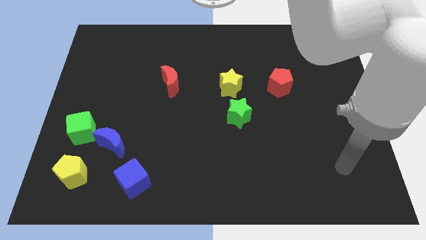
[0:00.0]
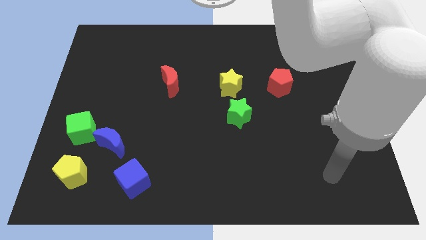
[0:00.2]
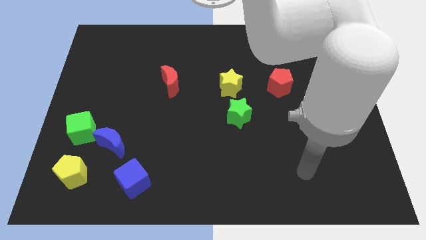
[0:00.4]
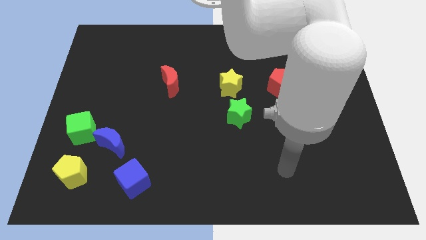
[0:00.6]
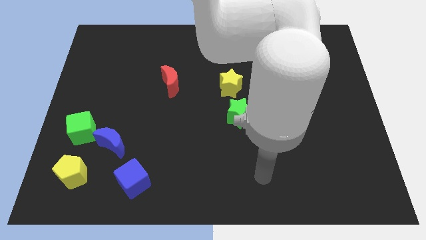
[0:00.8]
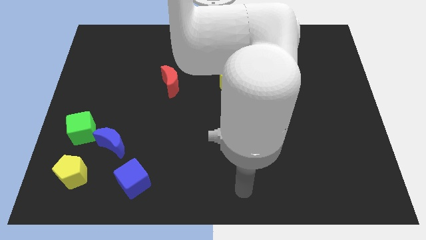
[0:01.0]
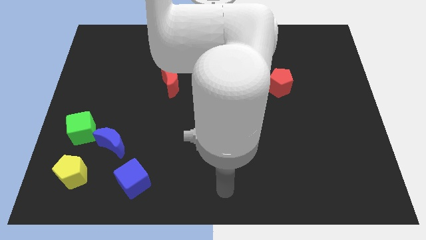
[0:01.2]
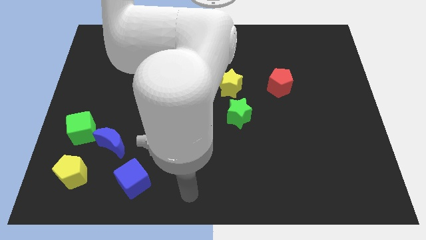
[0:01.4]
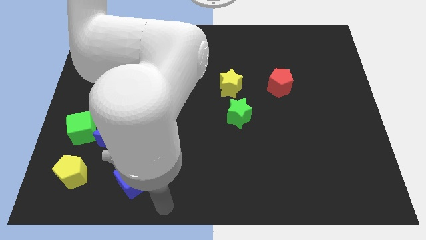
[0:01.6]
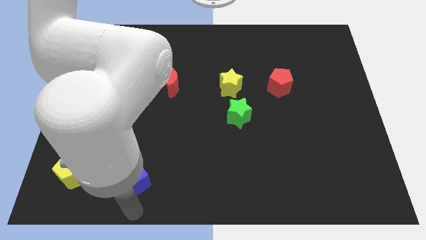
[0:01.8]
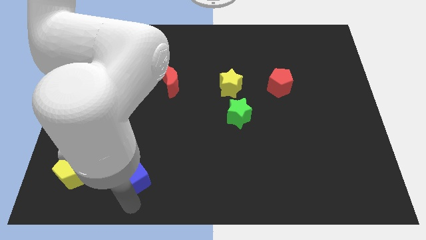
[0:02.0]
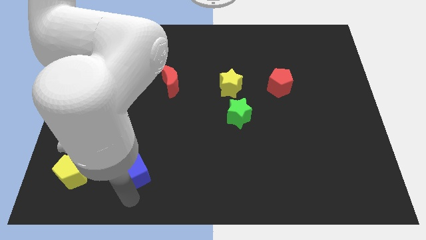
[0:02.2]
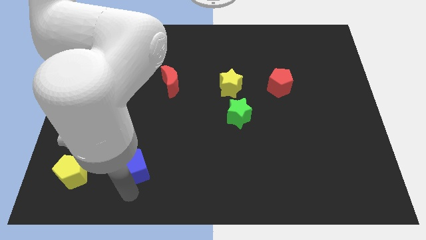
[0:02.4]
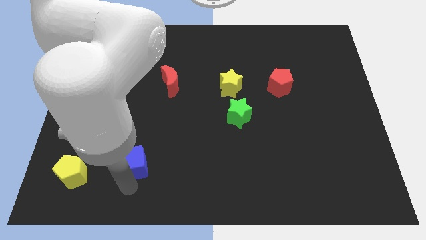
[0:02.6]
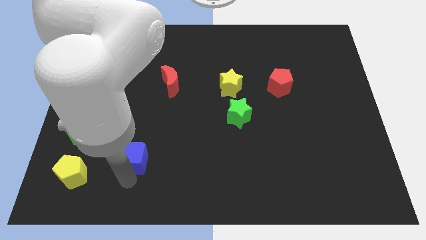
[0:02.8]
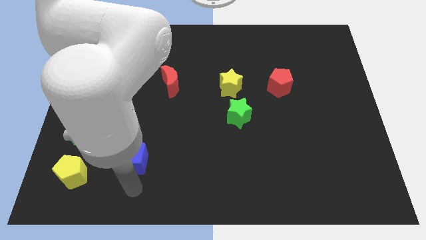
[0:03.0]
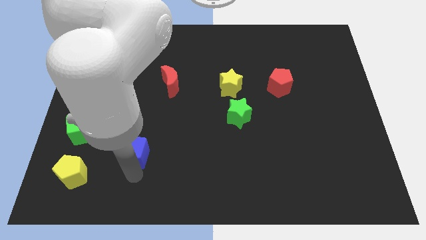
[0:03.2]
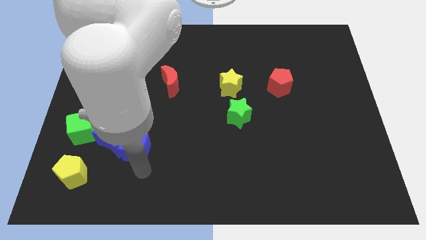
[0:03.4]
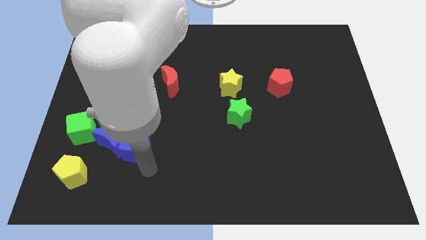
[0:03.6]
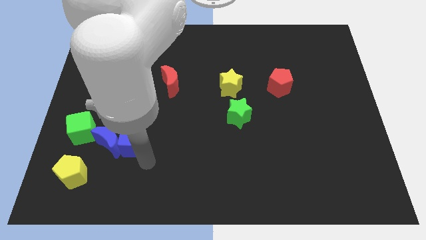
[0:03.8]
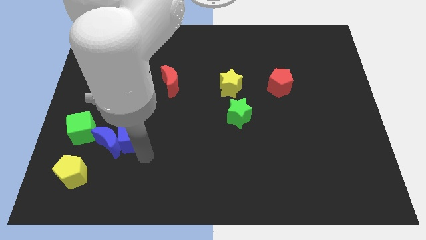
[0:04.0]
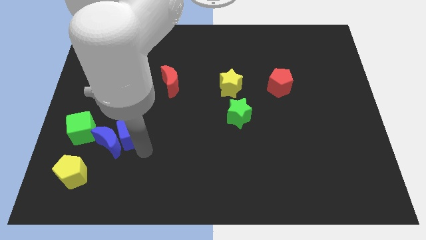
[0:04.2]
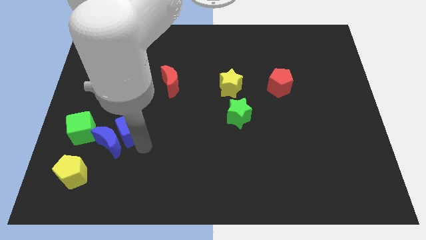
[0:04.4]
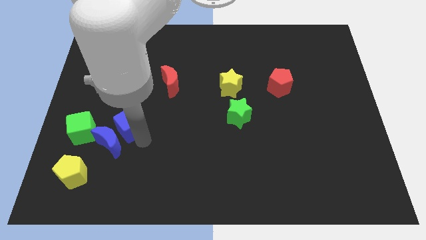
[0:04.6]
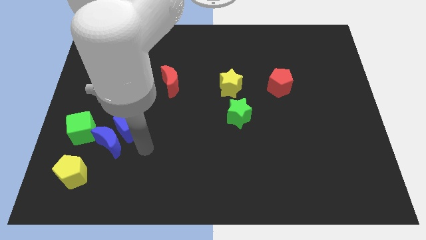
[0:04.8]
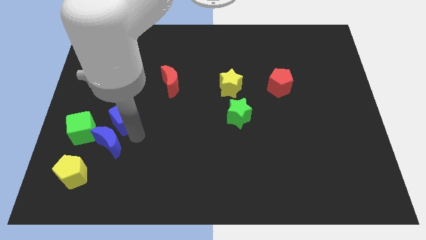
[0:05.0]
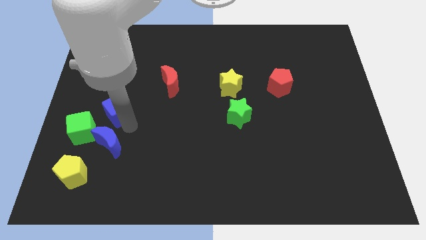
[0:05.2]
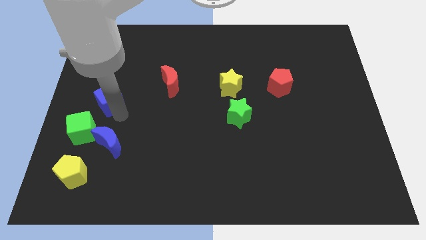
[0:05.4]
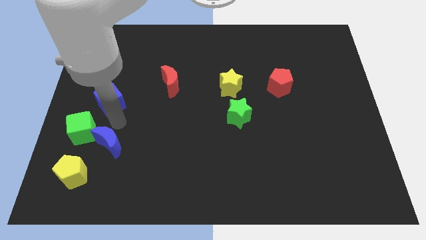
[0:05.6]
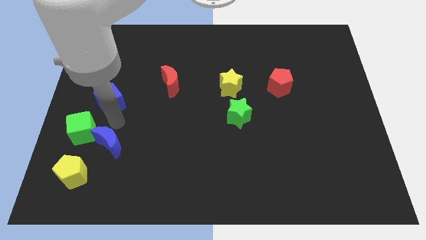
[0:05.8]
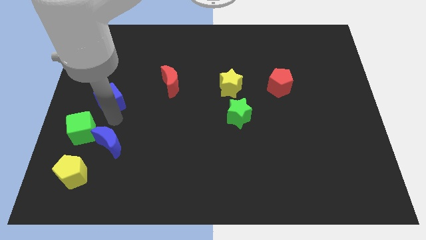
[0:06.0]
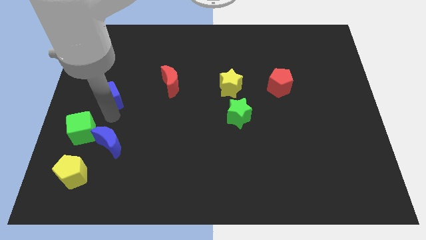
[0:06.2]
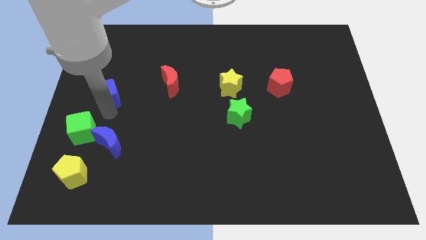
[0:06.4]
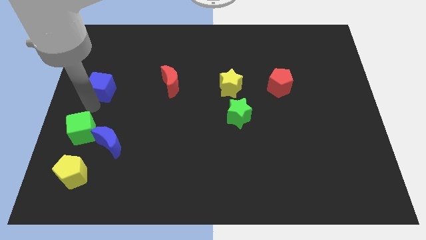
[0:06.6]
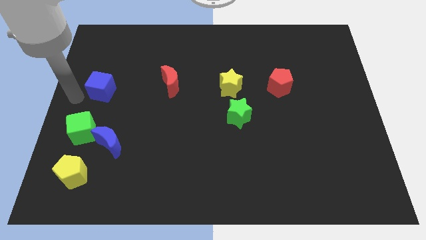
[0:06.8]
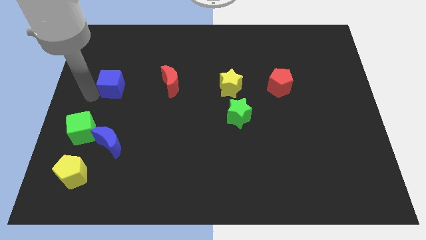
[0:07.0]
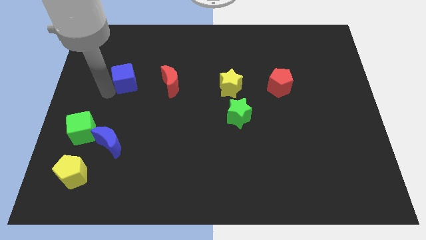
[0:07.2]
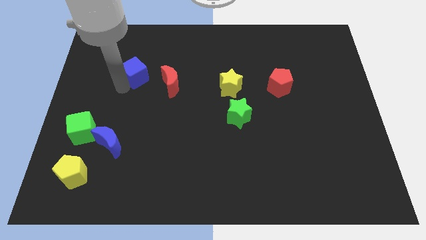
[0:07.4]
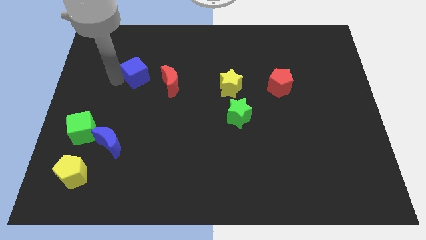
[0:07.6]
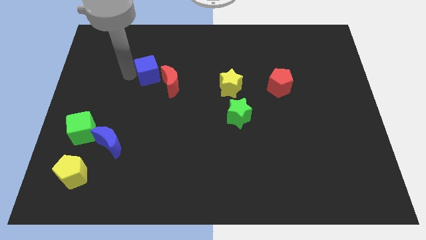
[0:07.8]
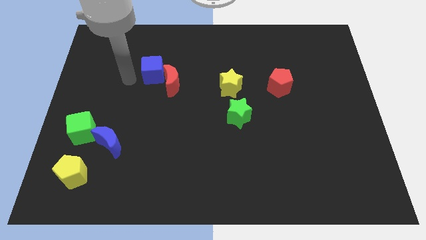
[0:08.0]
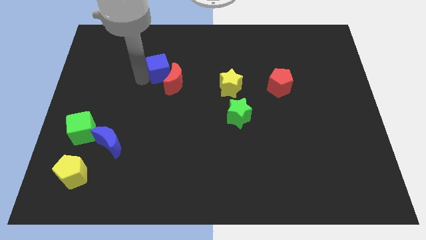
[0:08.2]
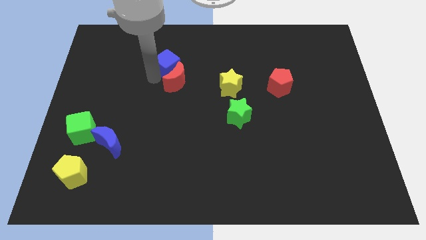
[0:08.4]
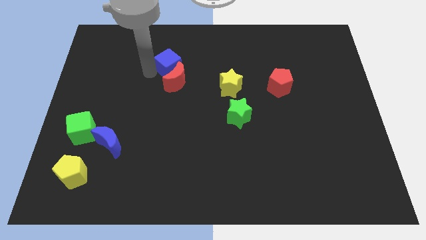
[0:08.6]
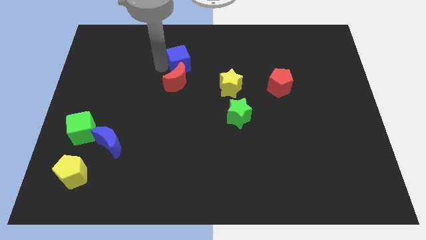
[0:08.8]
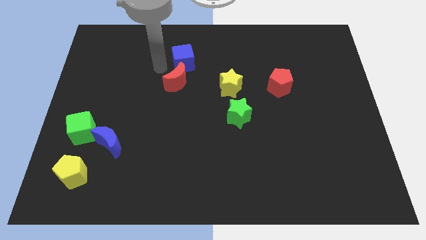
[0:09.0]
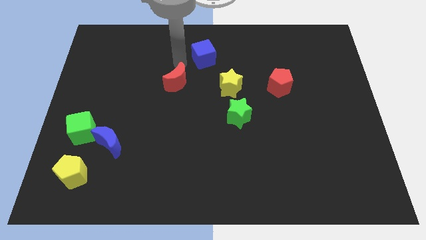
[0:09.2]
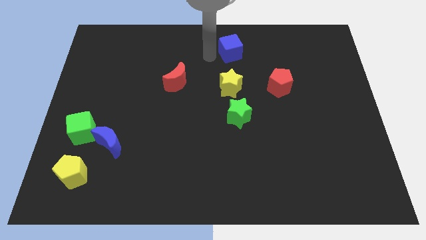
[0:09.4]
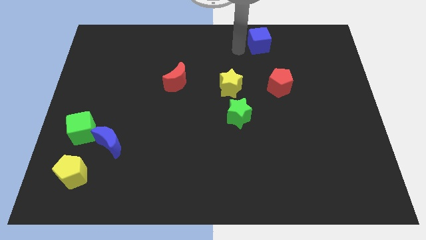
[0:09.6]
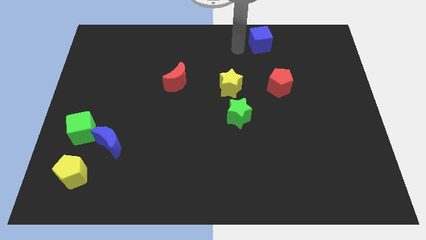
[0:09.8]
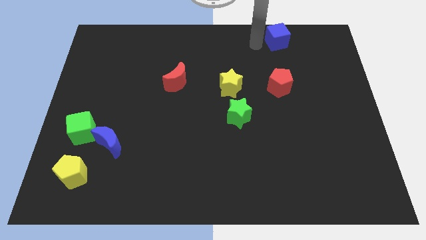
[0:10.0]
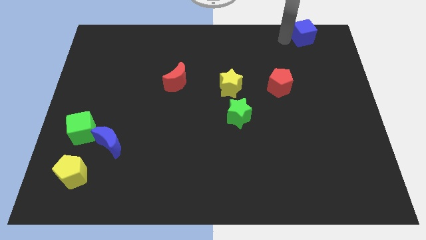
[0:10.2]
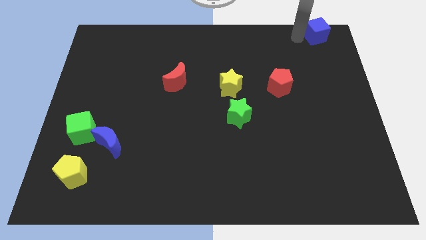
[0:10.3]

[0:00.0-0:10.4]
slide the blue cube to the top right corner

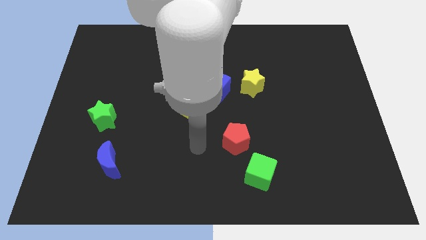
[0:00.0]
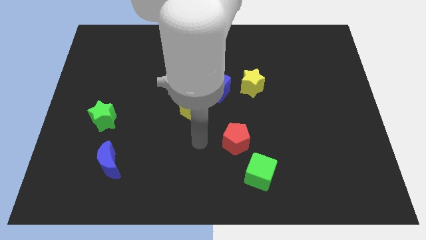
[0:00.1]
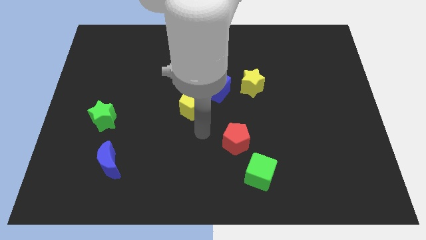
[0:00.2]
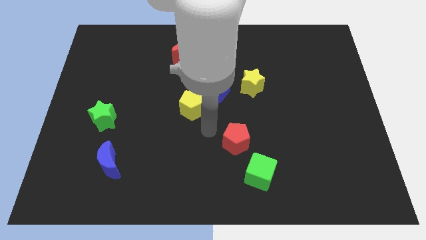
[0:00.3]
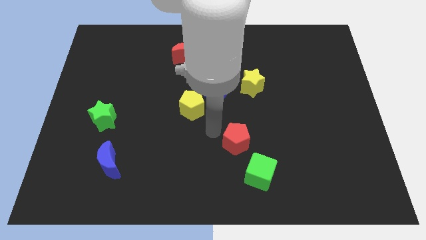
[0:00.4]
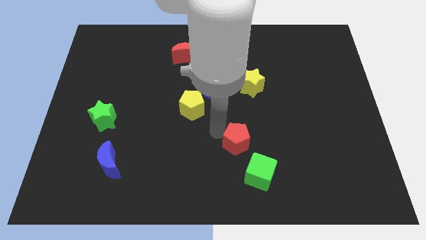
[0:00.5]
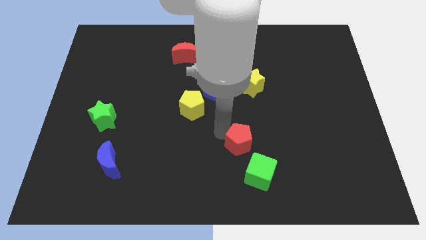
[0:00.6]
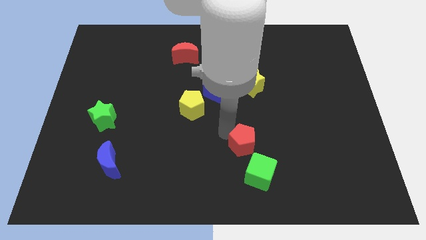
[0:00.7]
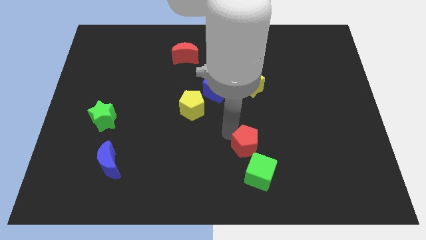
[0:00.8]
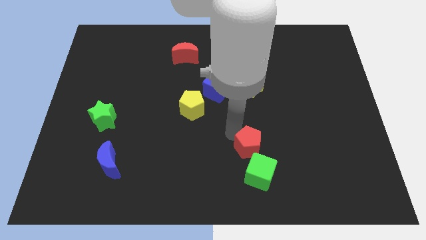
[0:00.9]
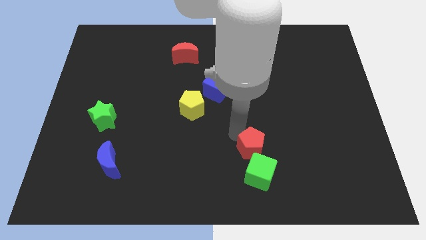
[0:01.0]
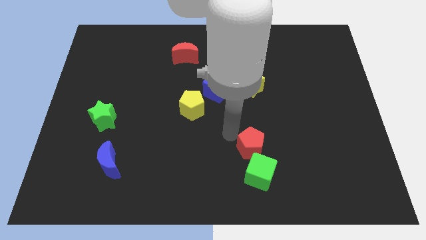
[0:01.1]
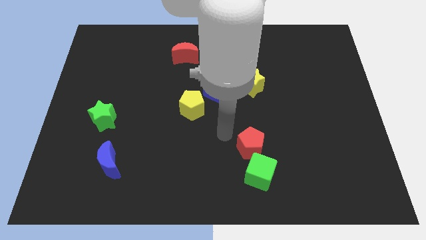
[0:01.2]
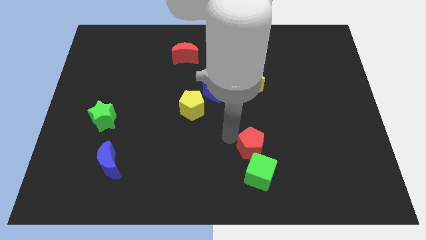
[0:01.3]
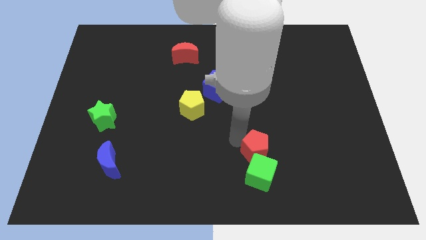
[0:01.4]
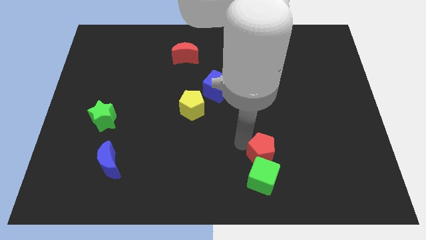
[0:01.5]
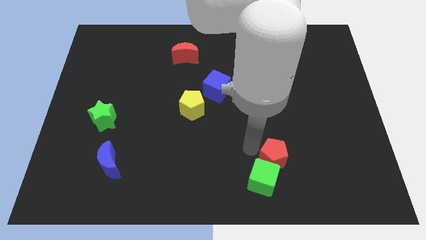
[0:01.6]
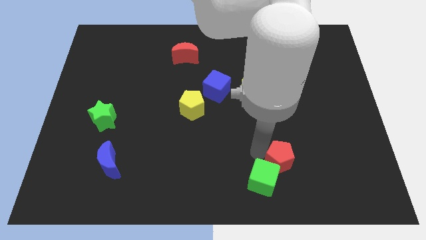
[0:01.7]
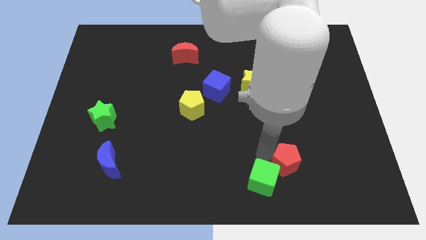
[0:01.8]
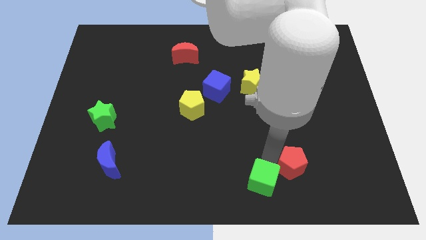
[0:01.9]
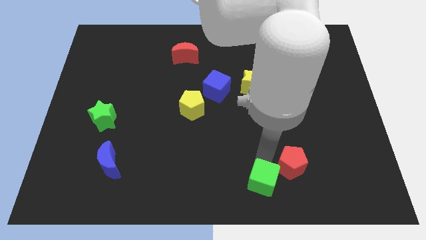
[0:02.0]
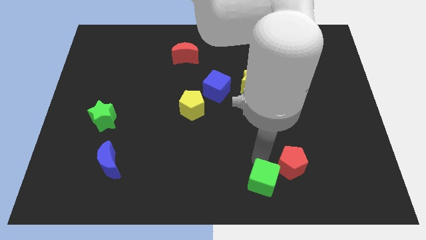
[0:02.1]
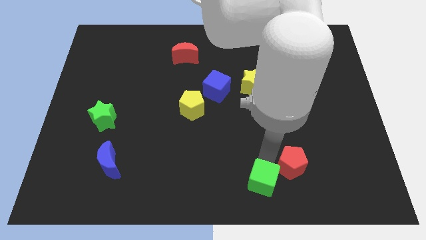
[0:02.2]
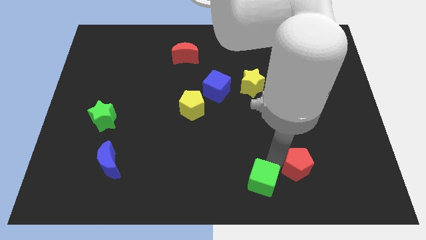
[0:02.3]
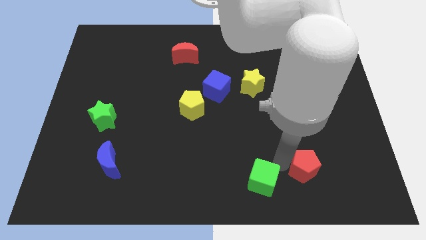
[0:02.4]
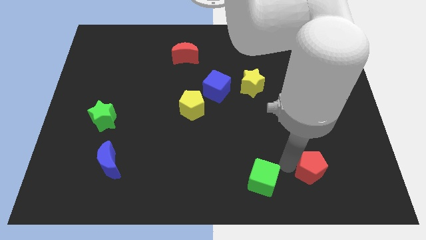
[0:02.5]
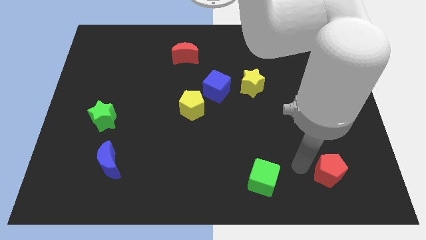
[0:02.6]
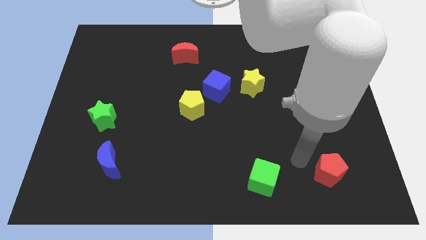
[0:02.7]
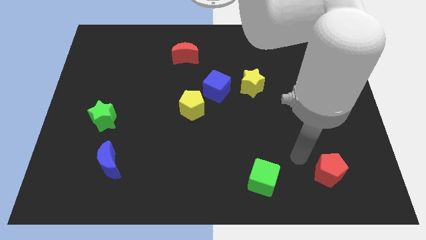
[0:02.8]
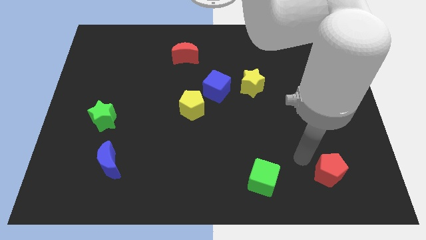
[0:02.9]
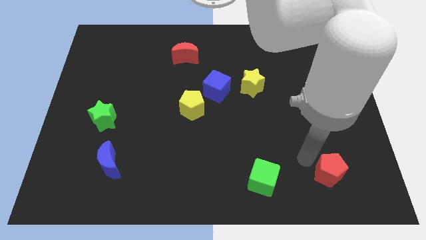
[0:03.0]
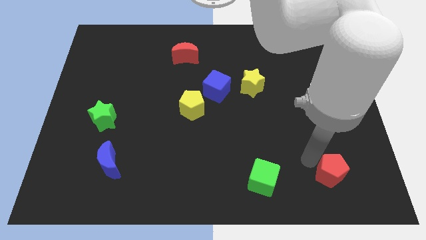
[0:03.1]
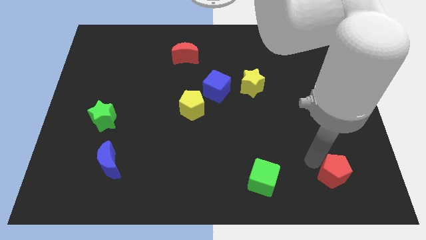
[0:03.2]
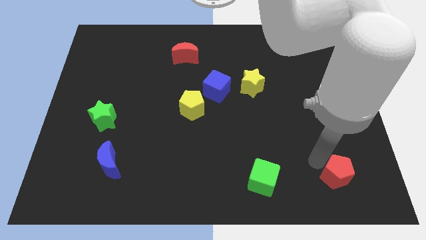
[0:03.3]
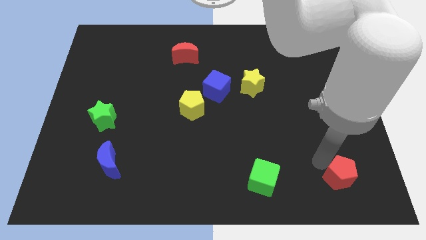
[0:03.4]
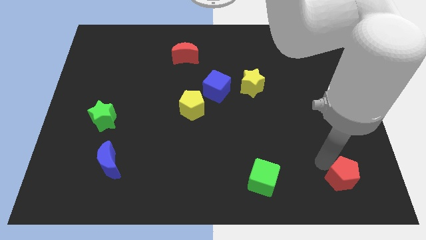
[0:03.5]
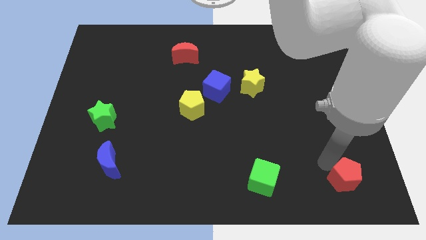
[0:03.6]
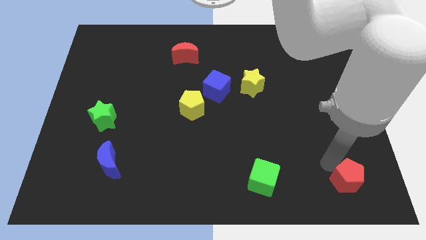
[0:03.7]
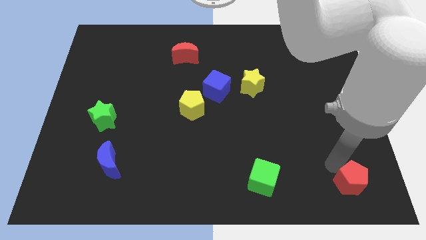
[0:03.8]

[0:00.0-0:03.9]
put the red pentagon to the bottom right corner
